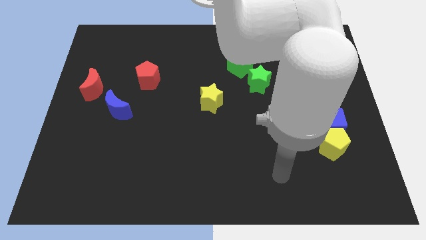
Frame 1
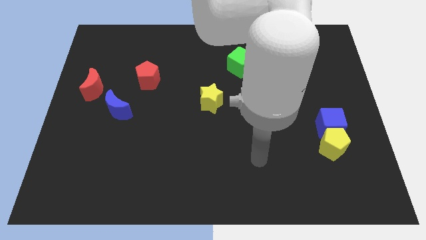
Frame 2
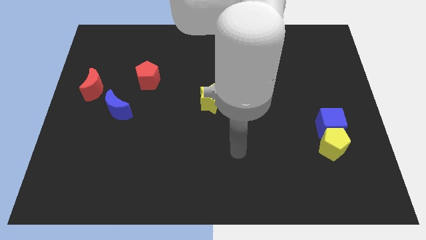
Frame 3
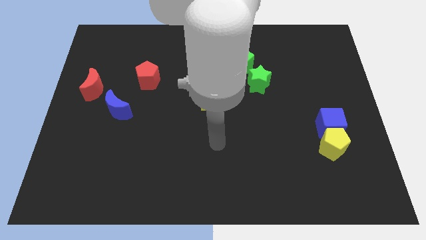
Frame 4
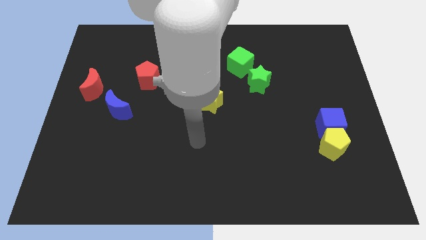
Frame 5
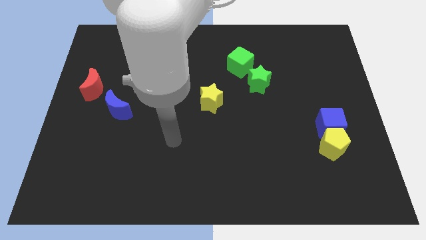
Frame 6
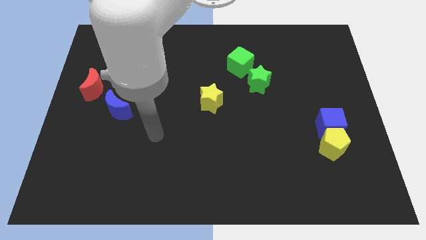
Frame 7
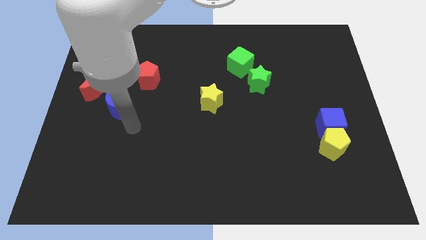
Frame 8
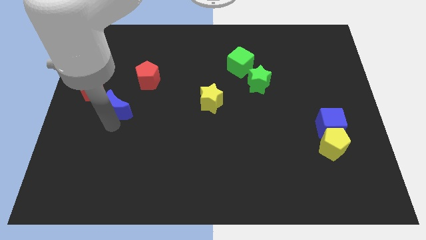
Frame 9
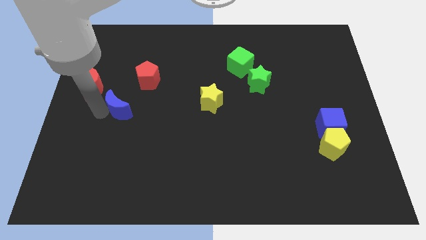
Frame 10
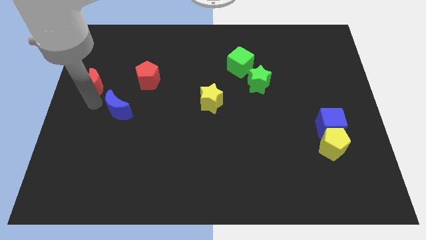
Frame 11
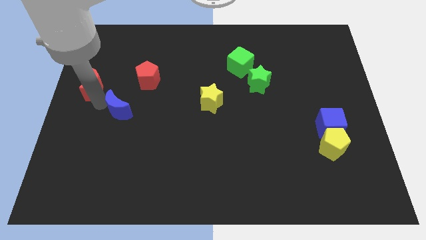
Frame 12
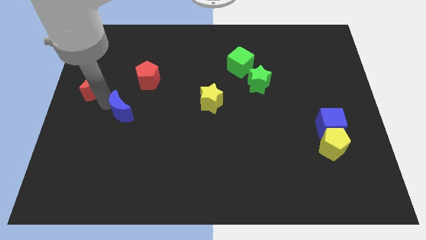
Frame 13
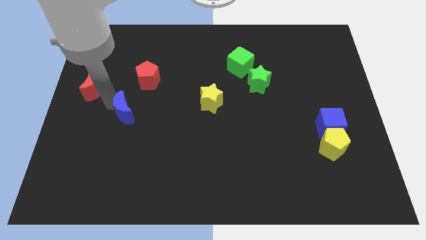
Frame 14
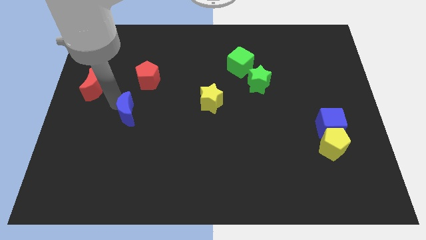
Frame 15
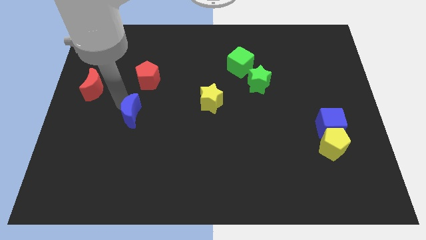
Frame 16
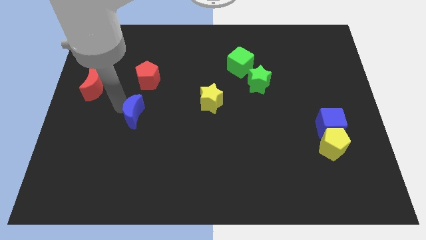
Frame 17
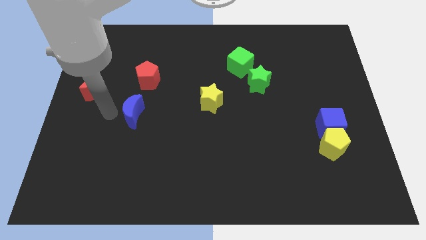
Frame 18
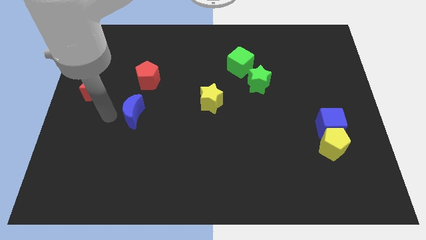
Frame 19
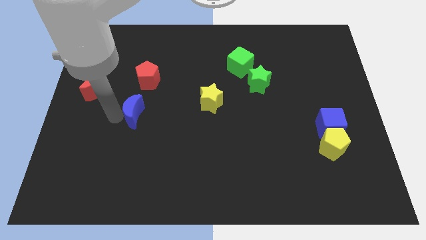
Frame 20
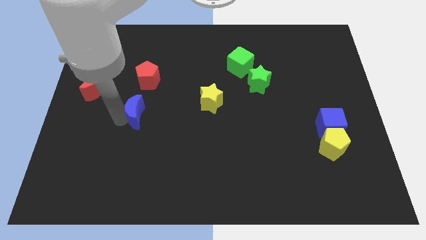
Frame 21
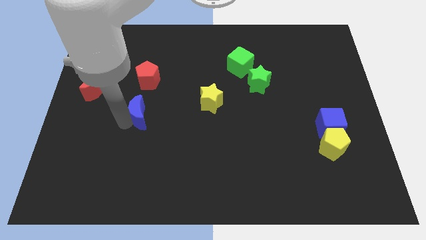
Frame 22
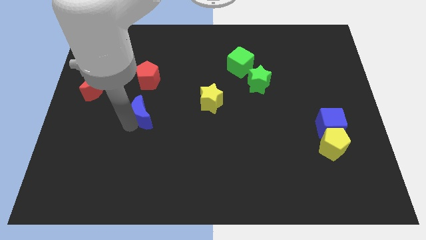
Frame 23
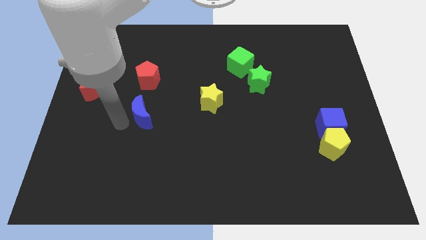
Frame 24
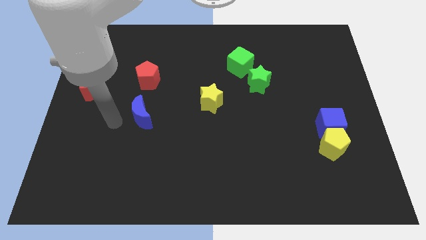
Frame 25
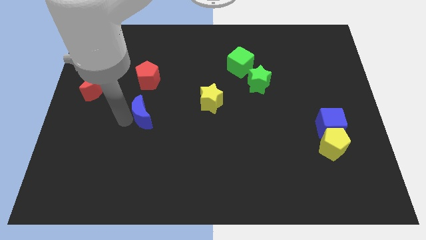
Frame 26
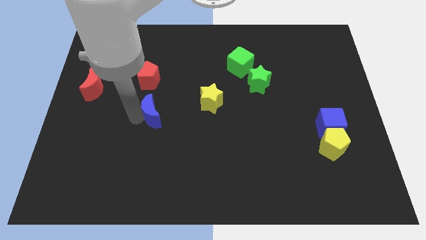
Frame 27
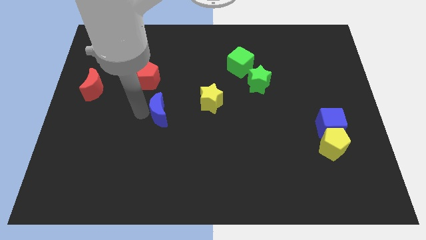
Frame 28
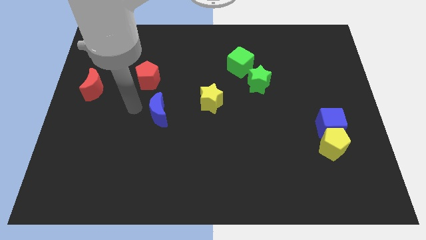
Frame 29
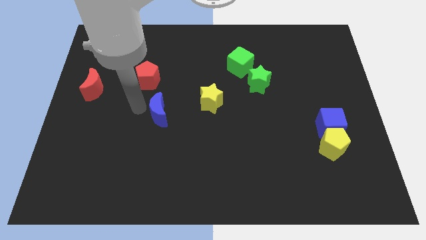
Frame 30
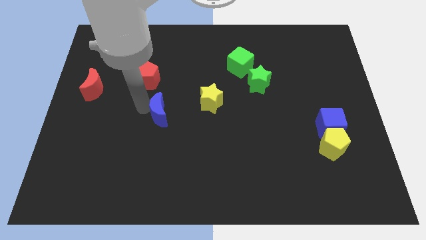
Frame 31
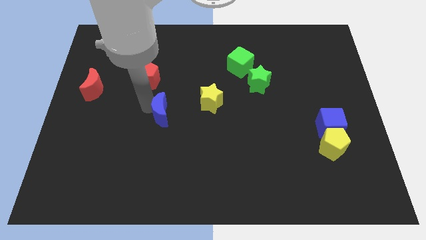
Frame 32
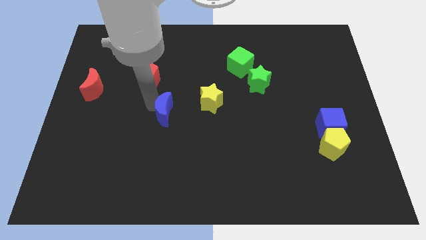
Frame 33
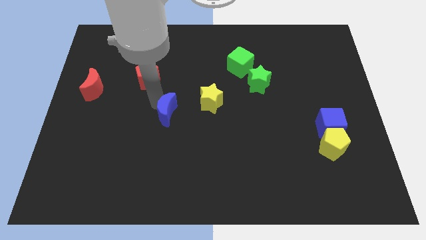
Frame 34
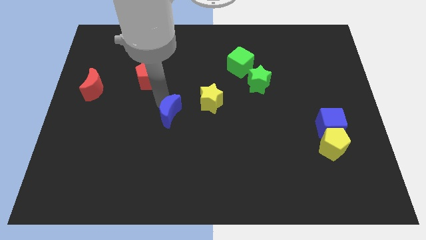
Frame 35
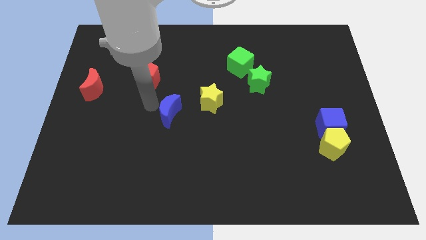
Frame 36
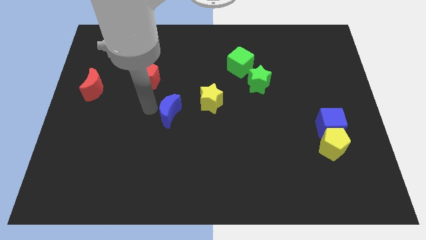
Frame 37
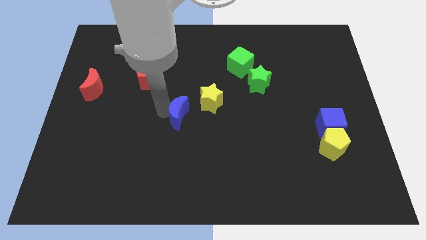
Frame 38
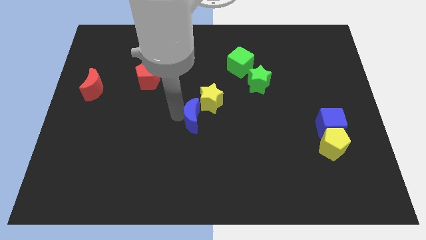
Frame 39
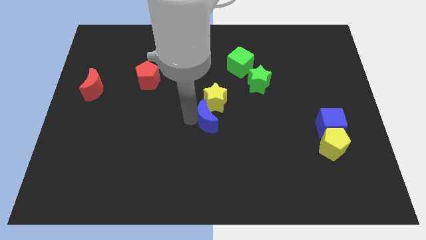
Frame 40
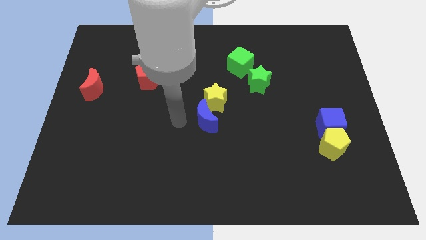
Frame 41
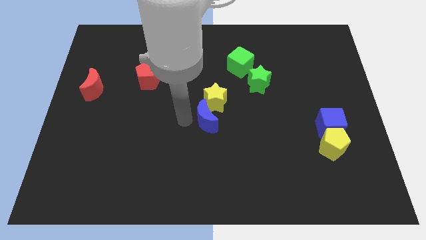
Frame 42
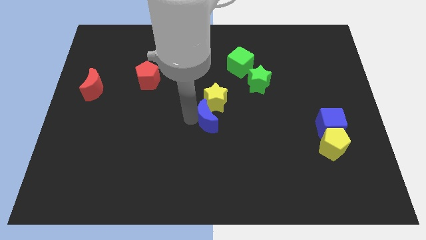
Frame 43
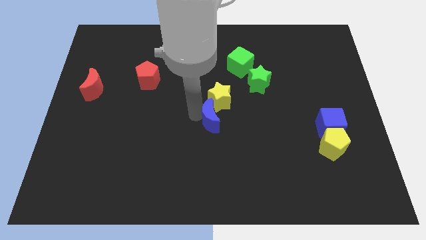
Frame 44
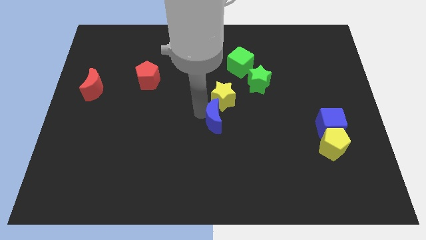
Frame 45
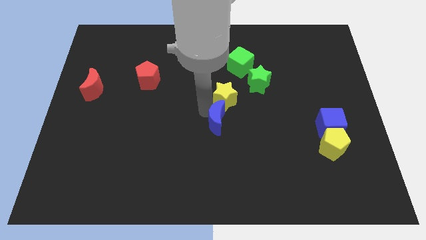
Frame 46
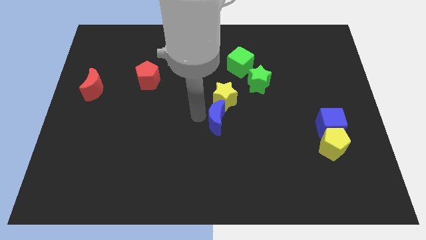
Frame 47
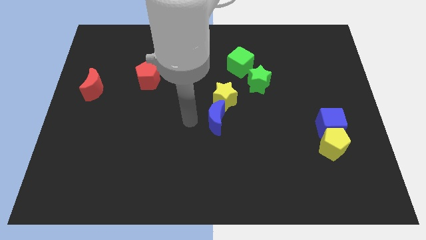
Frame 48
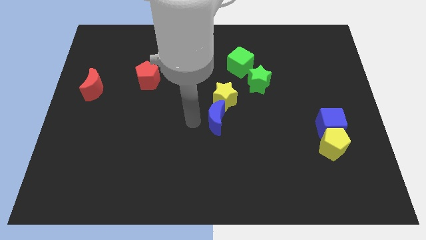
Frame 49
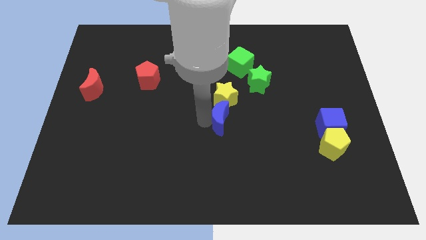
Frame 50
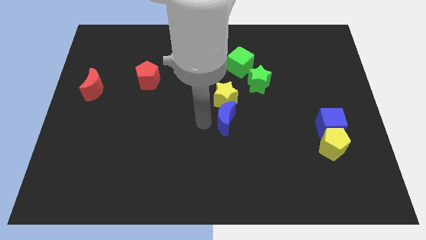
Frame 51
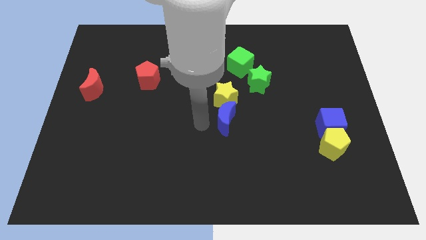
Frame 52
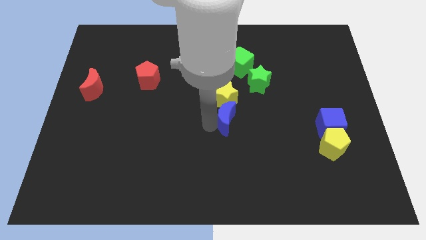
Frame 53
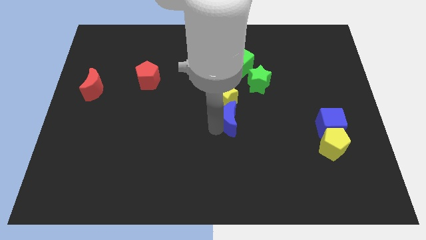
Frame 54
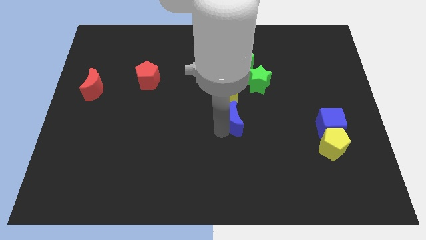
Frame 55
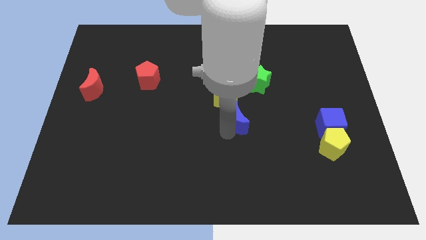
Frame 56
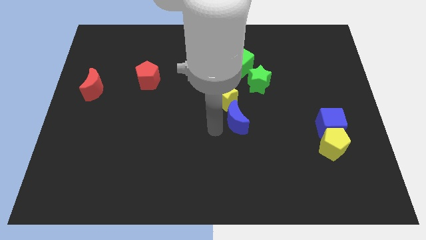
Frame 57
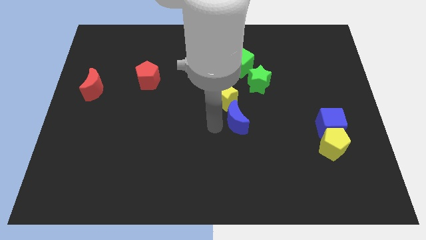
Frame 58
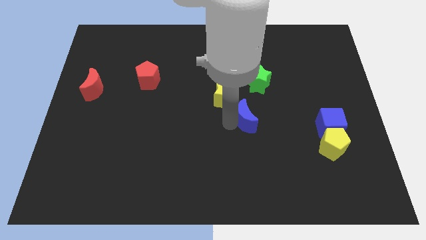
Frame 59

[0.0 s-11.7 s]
slide the blue moon to the bottom side of the green star

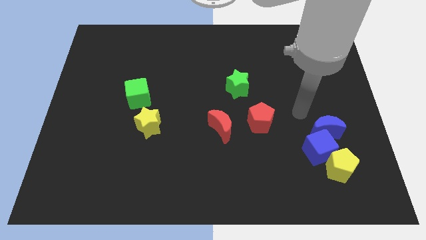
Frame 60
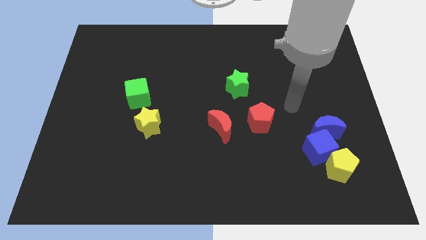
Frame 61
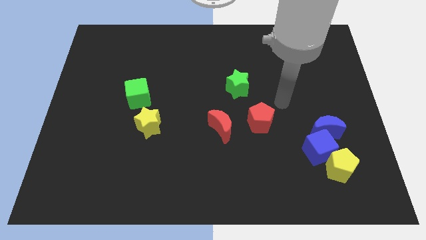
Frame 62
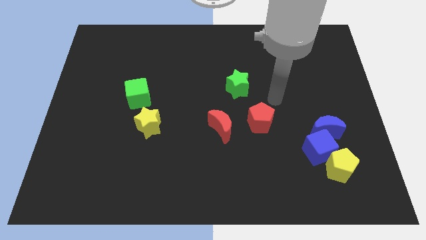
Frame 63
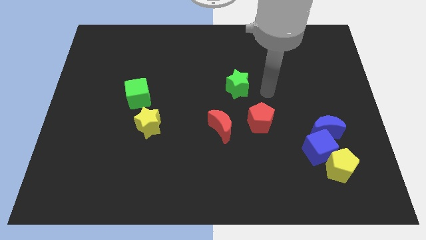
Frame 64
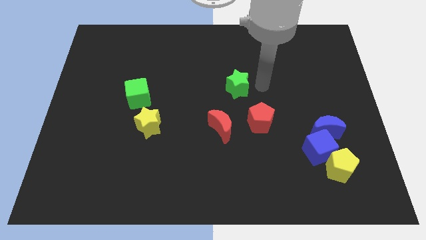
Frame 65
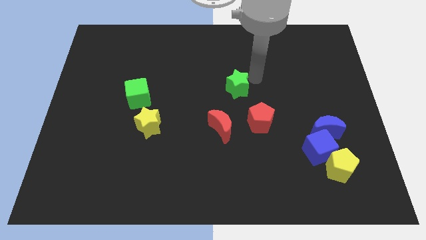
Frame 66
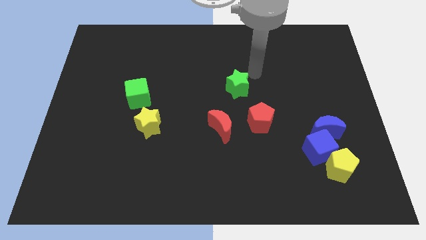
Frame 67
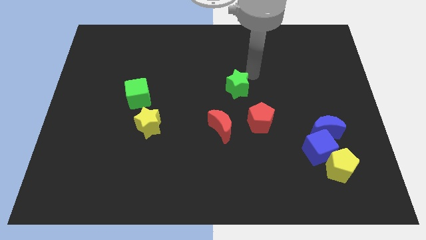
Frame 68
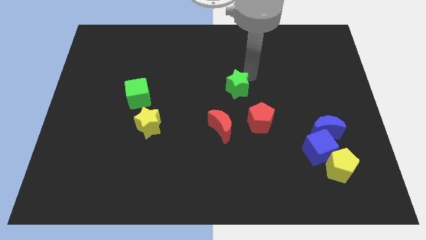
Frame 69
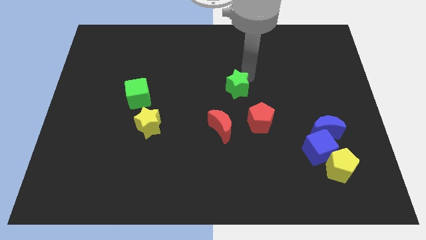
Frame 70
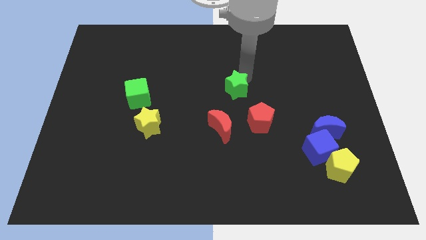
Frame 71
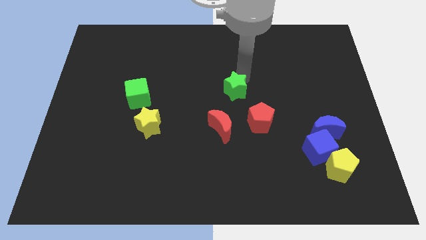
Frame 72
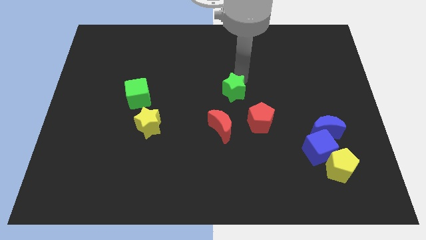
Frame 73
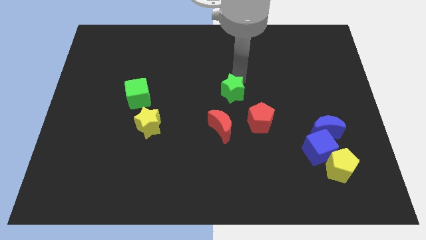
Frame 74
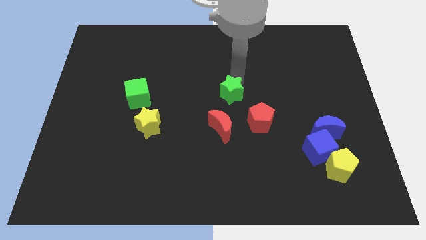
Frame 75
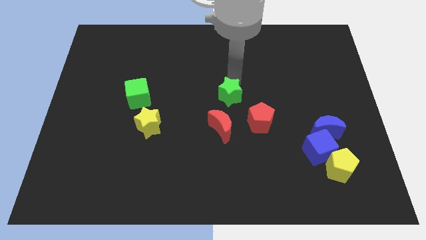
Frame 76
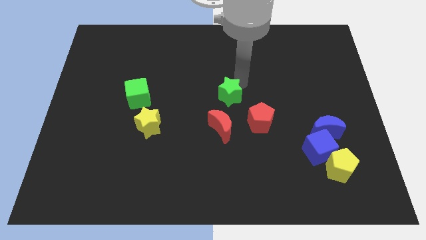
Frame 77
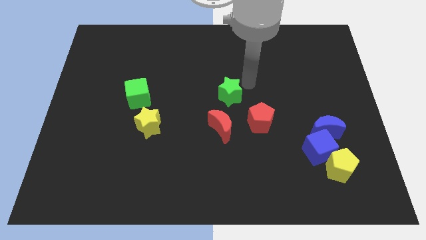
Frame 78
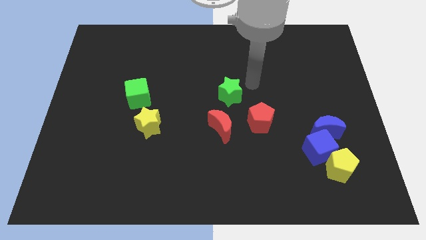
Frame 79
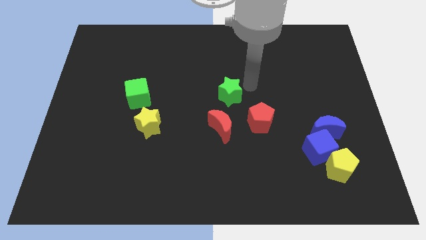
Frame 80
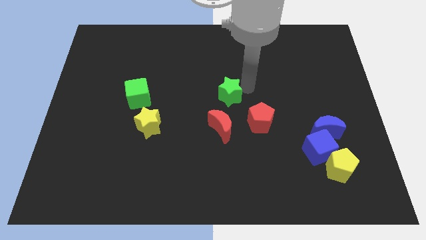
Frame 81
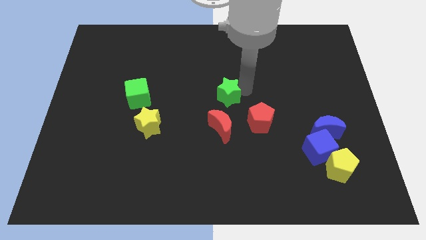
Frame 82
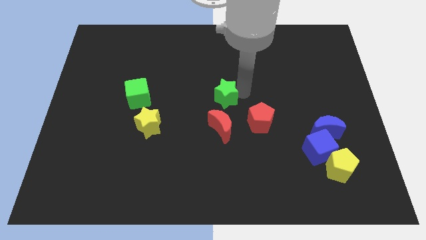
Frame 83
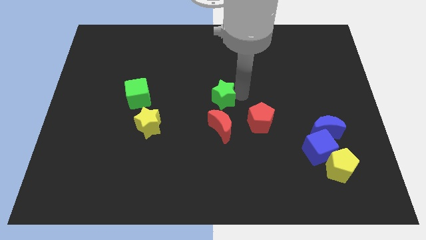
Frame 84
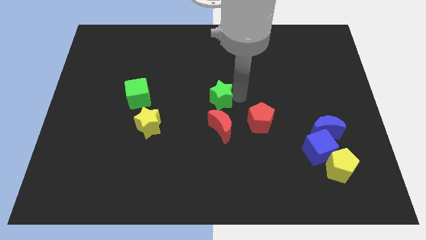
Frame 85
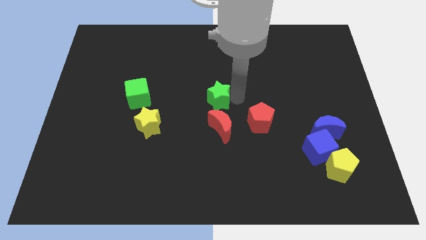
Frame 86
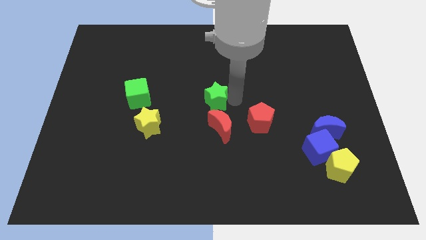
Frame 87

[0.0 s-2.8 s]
put the green star to the top left side of the red moon
